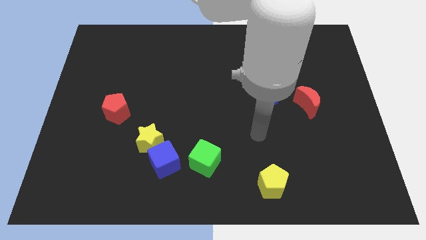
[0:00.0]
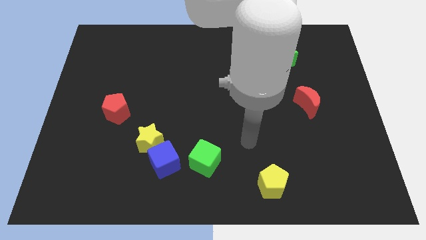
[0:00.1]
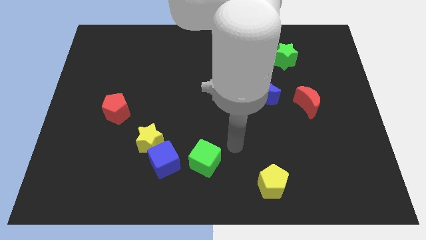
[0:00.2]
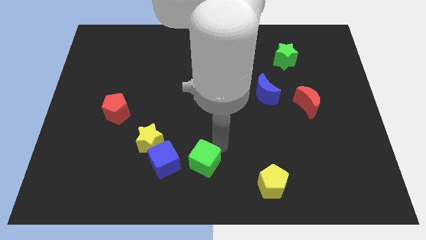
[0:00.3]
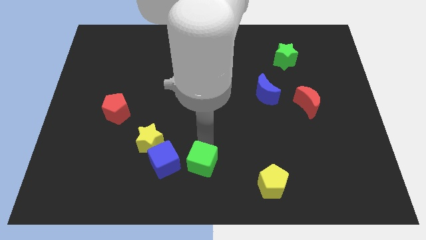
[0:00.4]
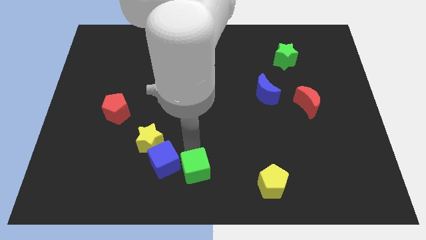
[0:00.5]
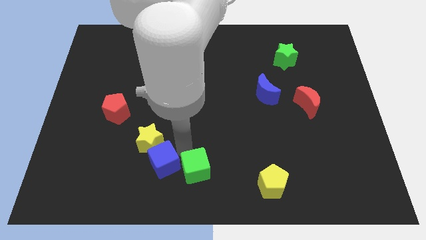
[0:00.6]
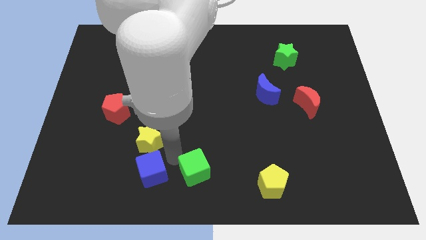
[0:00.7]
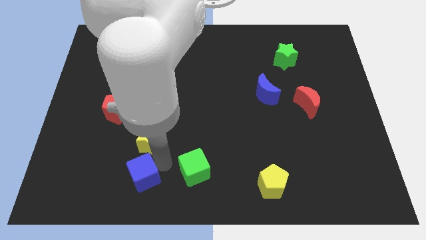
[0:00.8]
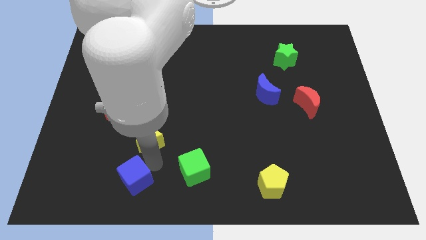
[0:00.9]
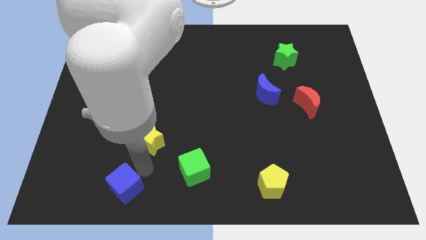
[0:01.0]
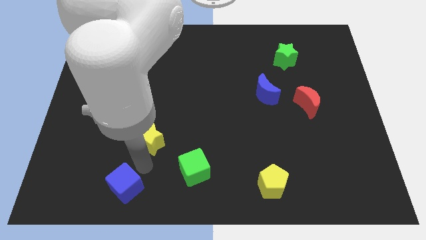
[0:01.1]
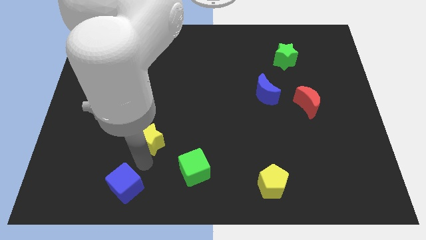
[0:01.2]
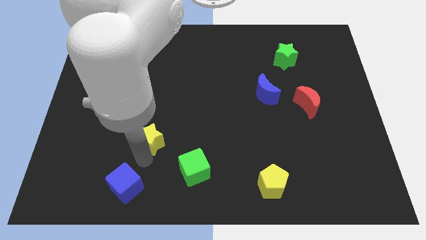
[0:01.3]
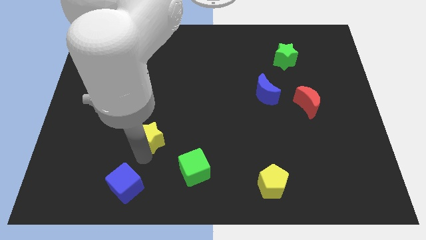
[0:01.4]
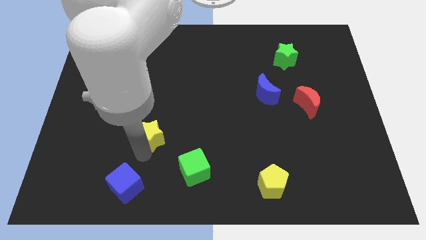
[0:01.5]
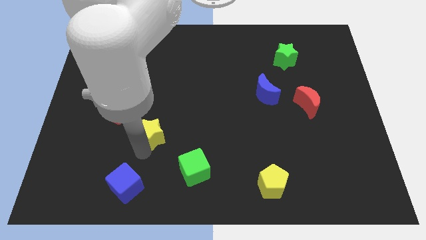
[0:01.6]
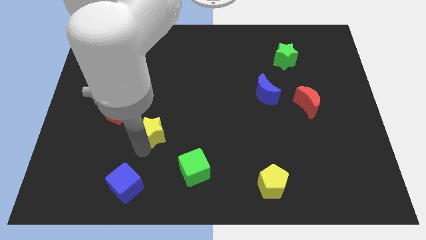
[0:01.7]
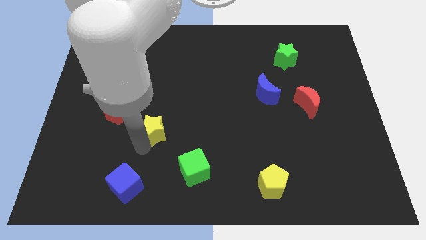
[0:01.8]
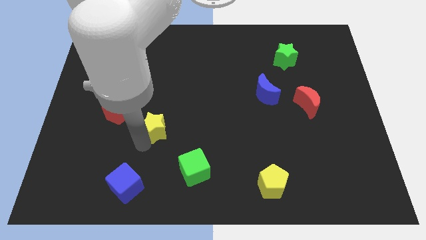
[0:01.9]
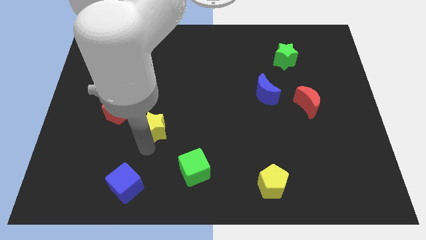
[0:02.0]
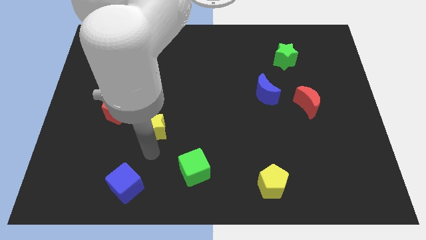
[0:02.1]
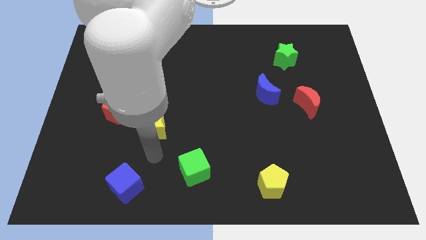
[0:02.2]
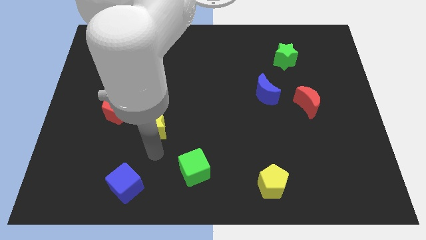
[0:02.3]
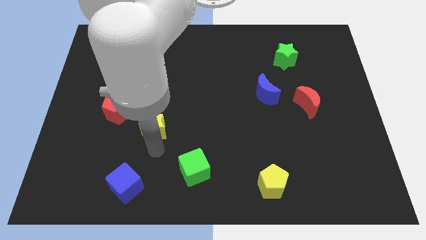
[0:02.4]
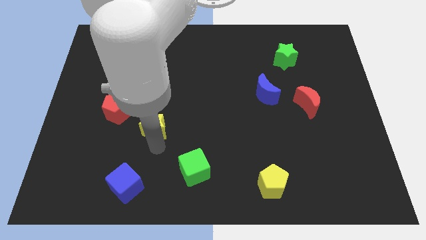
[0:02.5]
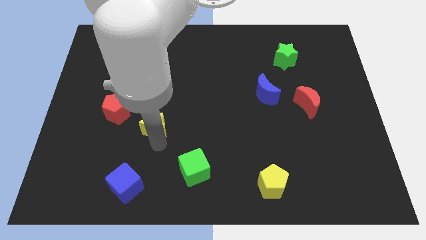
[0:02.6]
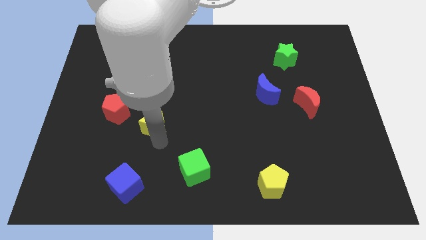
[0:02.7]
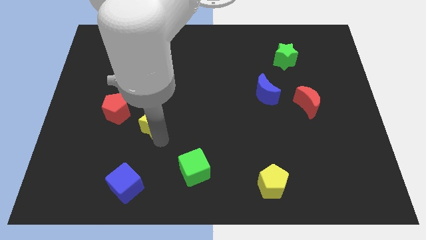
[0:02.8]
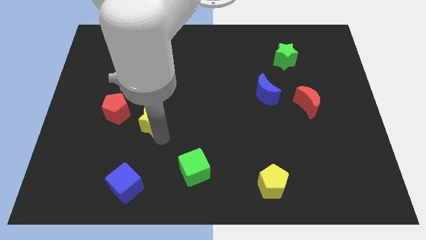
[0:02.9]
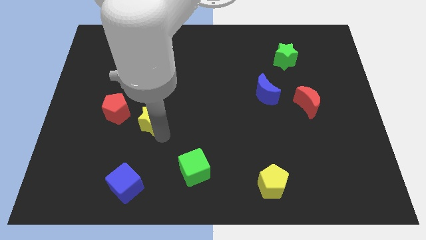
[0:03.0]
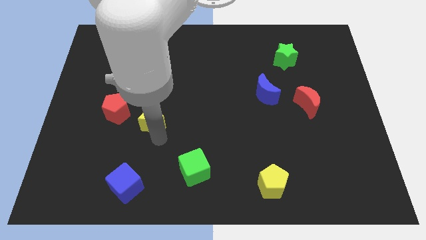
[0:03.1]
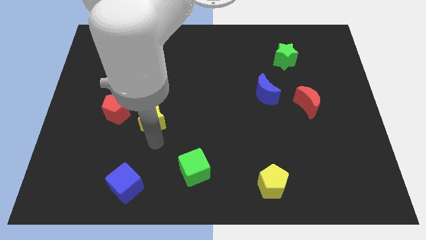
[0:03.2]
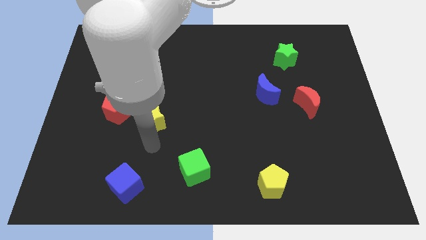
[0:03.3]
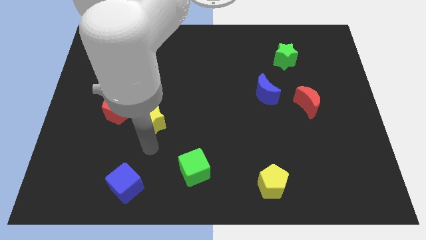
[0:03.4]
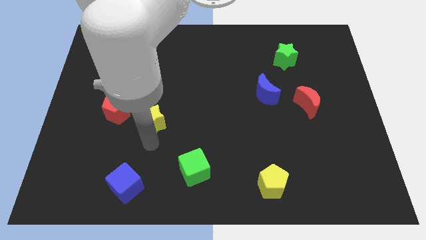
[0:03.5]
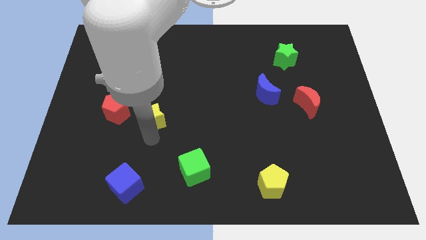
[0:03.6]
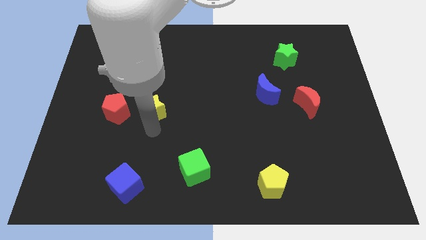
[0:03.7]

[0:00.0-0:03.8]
slightly push the yellow star up

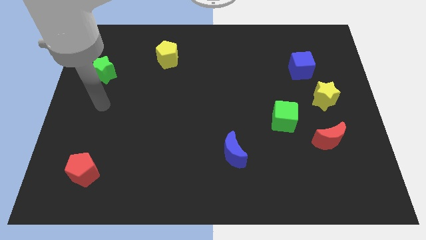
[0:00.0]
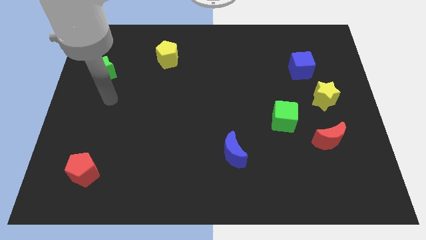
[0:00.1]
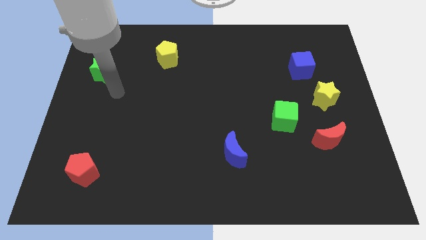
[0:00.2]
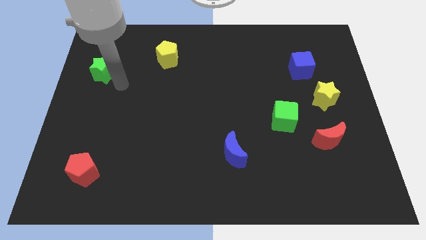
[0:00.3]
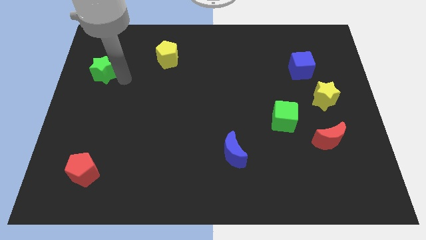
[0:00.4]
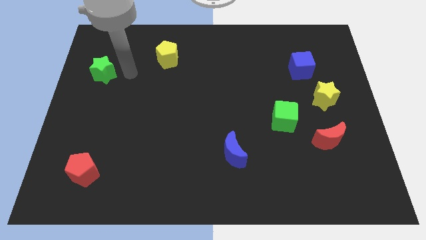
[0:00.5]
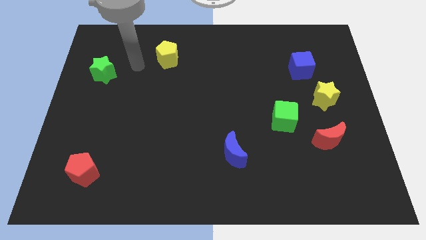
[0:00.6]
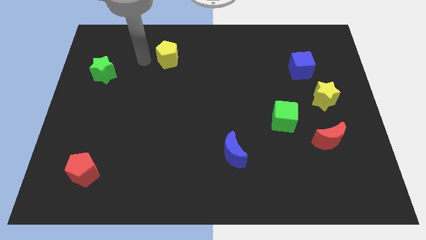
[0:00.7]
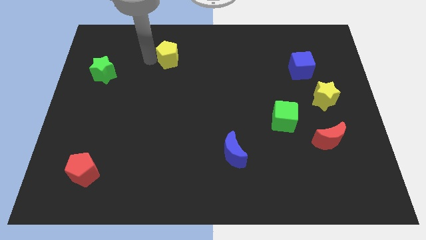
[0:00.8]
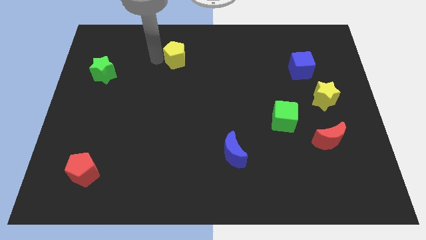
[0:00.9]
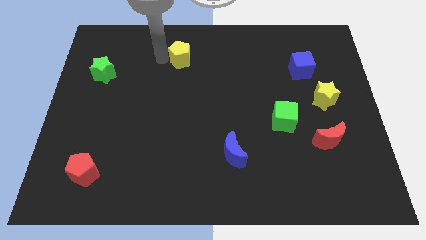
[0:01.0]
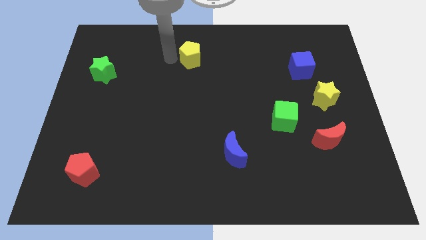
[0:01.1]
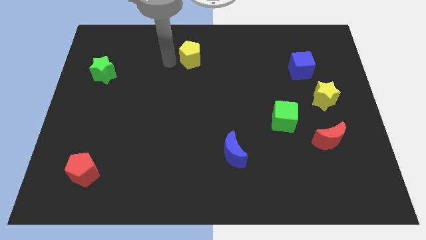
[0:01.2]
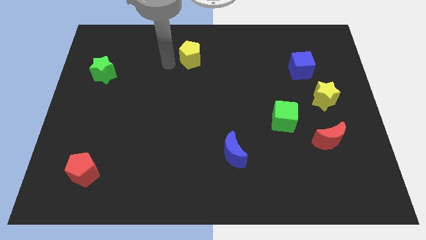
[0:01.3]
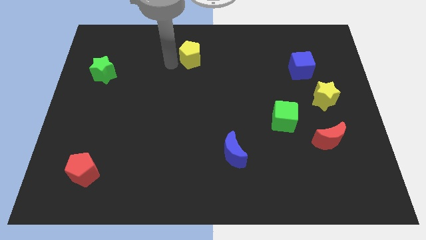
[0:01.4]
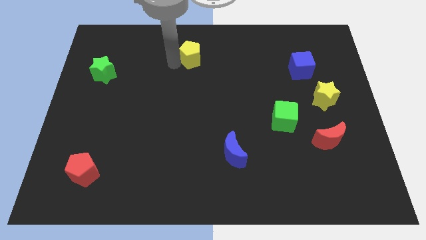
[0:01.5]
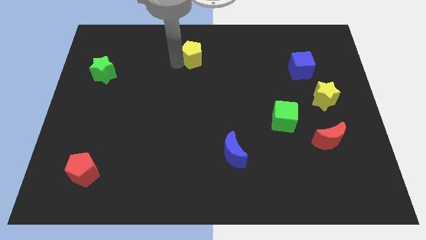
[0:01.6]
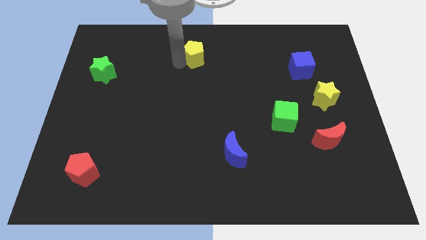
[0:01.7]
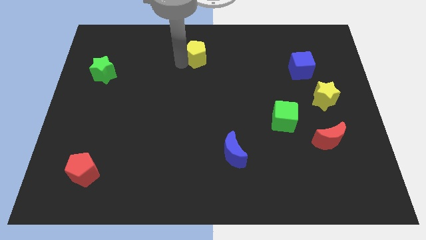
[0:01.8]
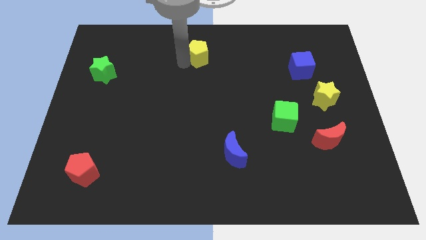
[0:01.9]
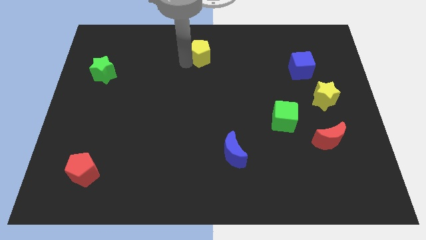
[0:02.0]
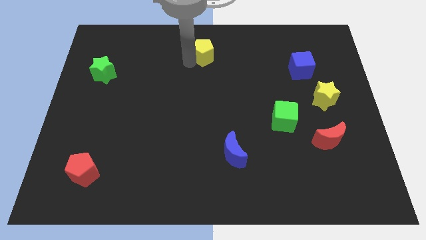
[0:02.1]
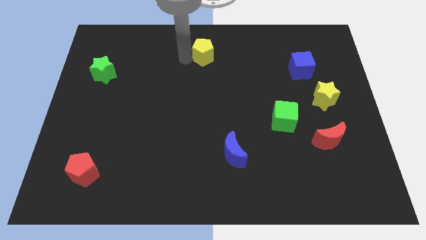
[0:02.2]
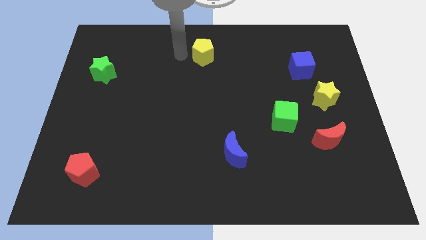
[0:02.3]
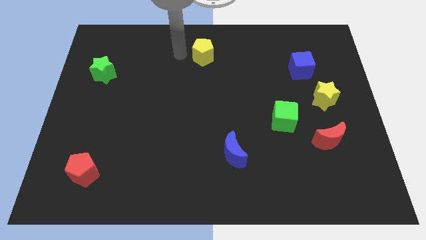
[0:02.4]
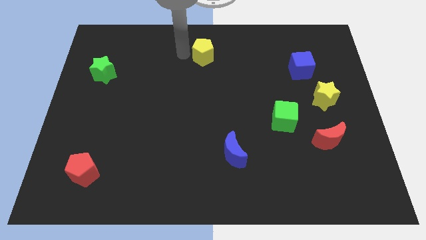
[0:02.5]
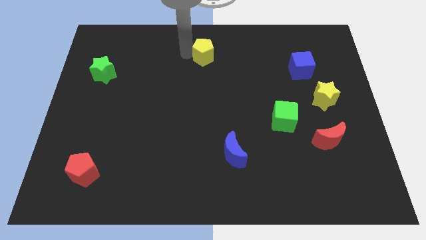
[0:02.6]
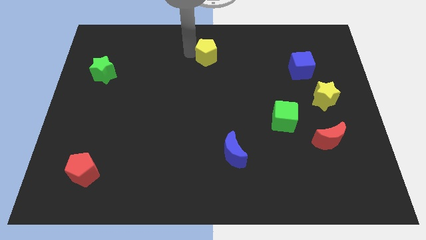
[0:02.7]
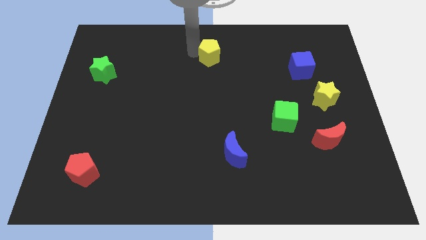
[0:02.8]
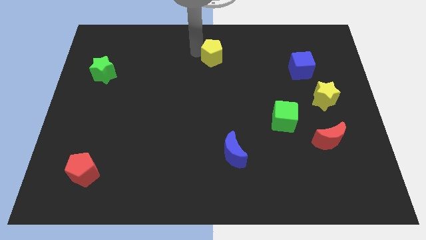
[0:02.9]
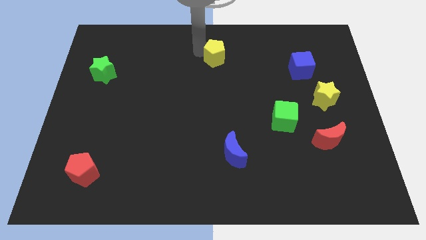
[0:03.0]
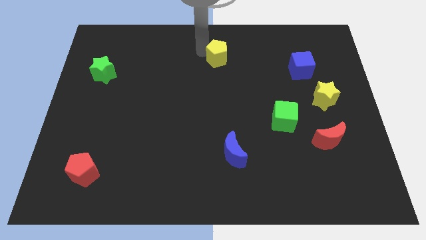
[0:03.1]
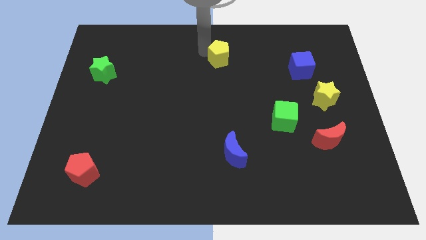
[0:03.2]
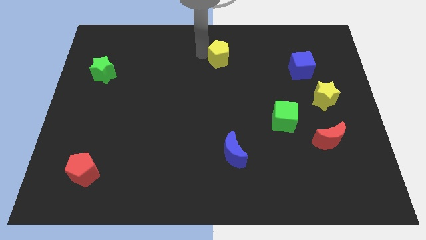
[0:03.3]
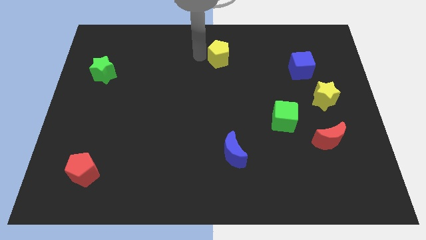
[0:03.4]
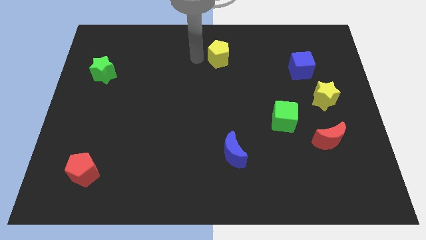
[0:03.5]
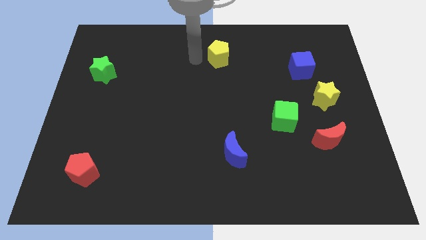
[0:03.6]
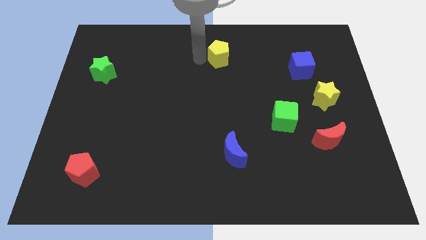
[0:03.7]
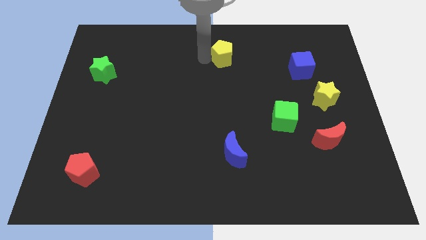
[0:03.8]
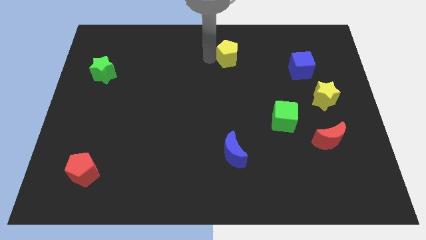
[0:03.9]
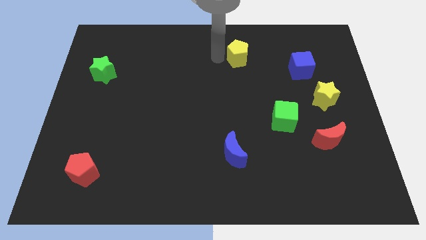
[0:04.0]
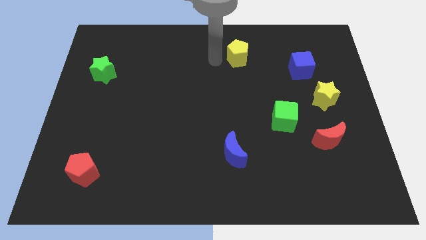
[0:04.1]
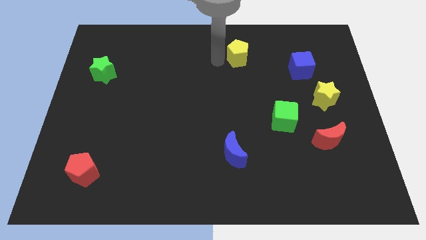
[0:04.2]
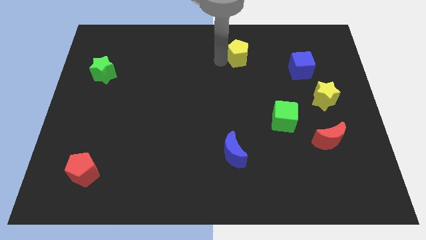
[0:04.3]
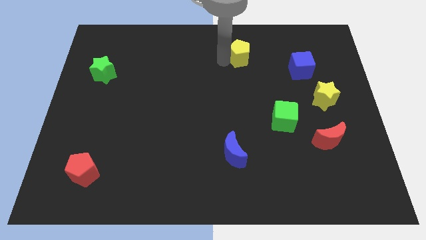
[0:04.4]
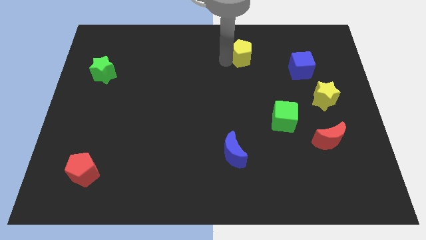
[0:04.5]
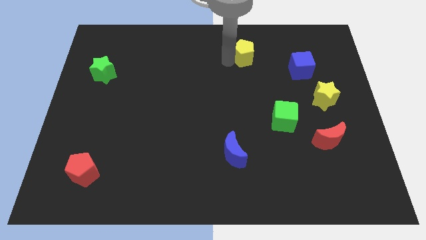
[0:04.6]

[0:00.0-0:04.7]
push the yellow pentagon right
